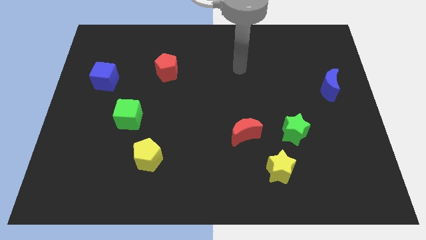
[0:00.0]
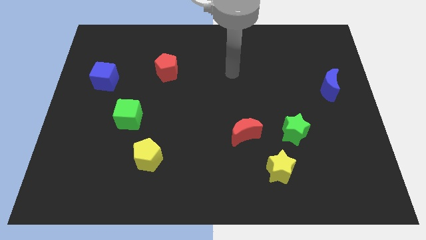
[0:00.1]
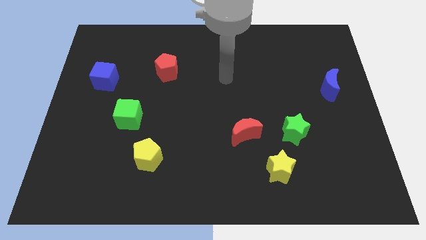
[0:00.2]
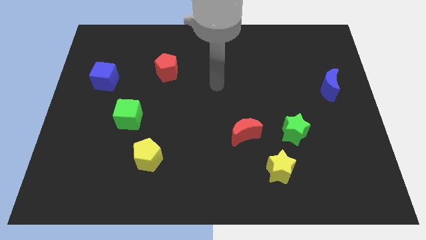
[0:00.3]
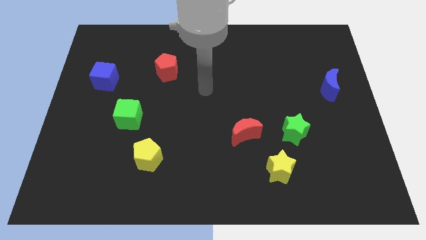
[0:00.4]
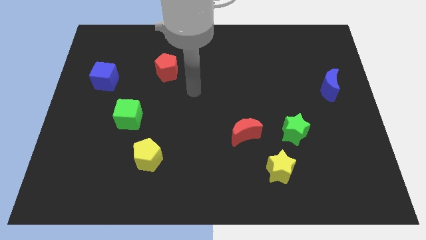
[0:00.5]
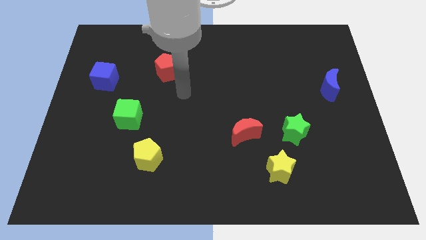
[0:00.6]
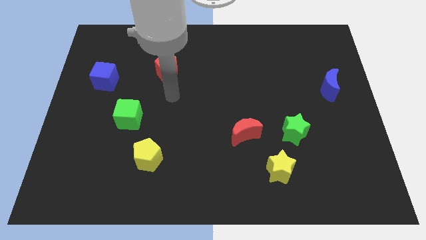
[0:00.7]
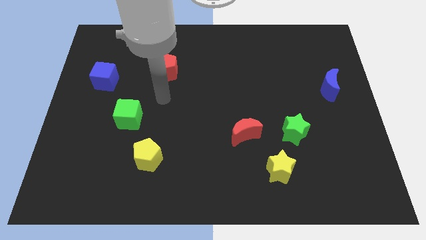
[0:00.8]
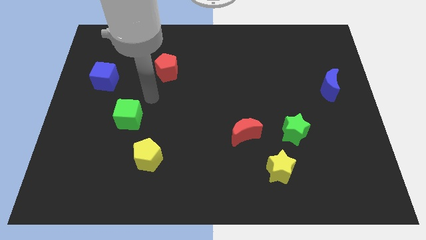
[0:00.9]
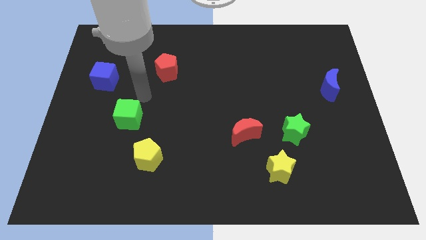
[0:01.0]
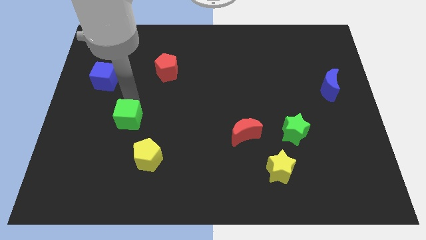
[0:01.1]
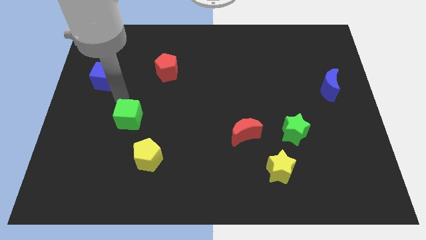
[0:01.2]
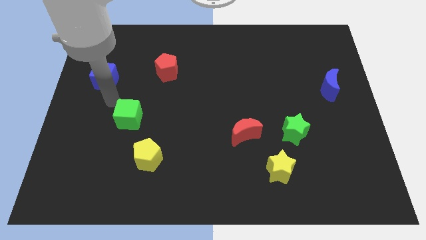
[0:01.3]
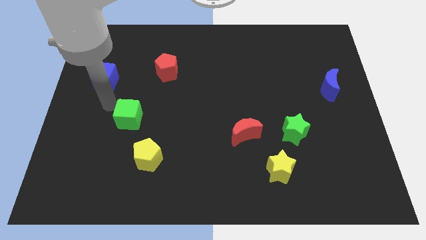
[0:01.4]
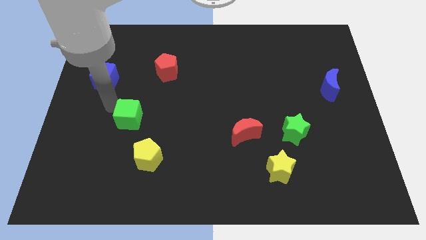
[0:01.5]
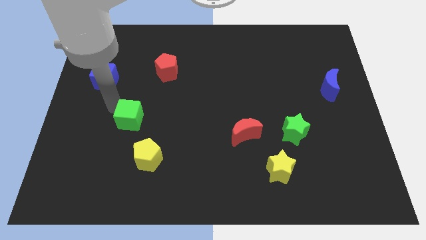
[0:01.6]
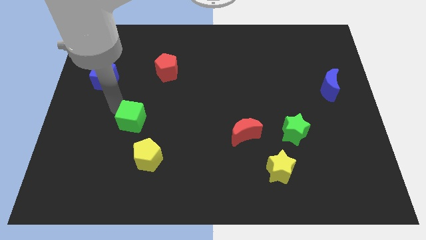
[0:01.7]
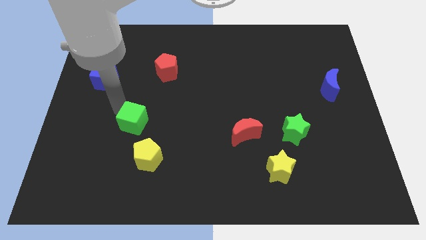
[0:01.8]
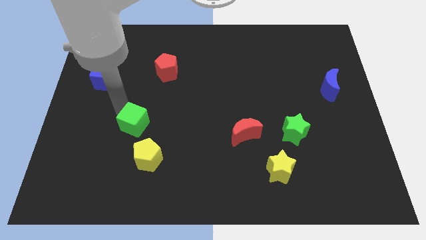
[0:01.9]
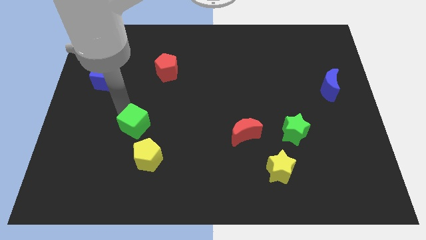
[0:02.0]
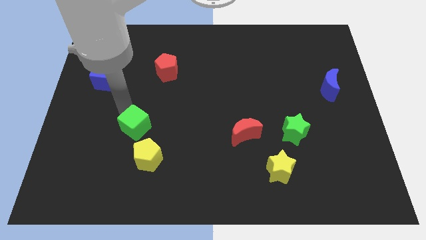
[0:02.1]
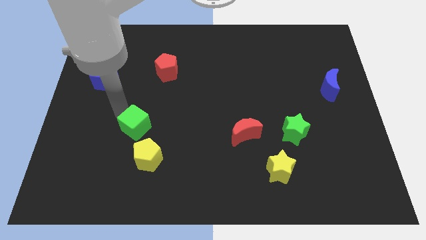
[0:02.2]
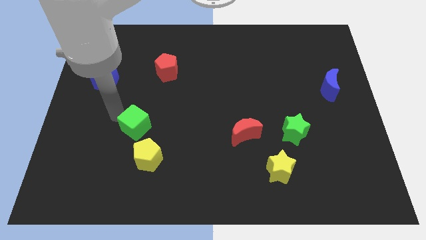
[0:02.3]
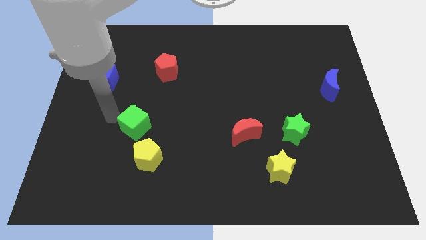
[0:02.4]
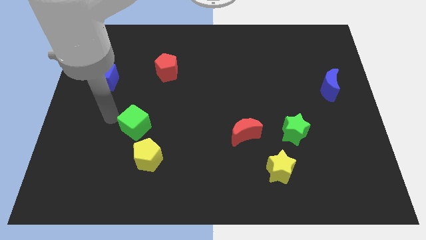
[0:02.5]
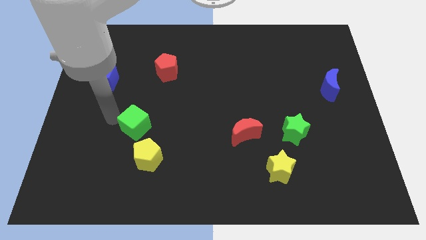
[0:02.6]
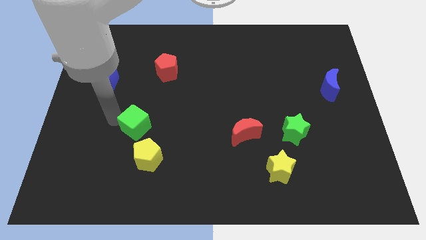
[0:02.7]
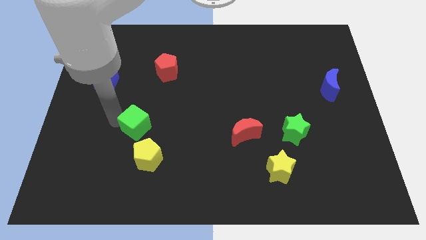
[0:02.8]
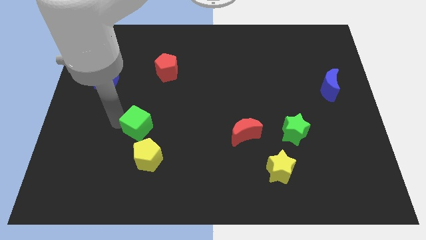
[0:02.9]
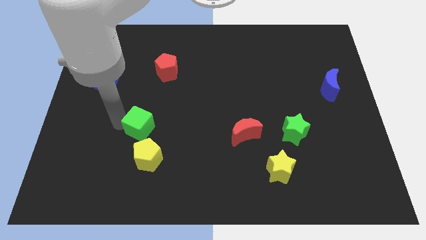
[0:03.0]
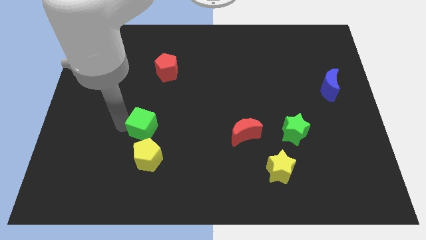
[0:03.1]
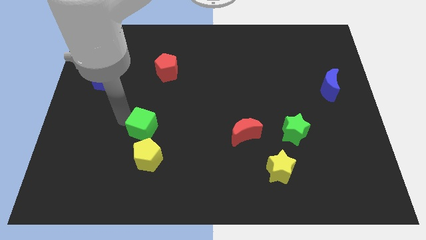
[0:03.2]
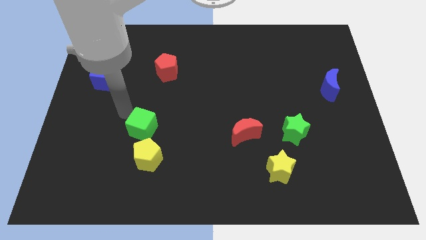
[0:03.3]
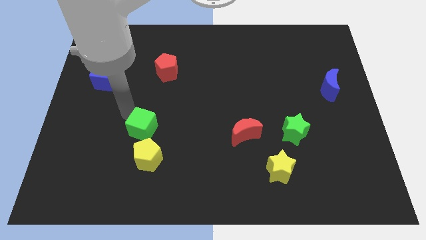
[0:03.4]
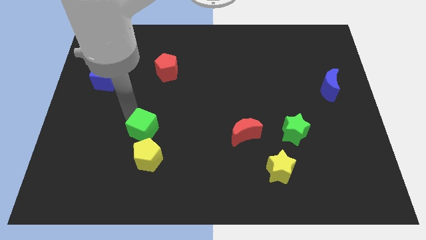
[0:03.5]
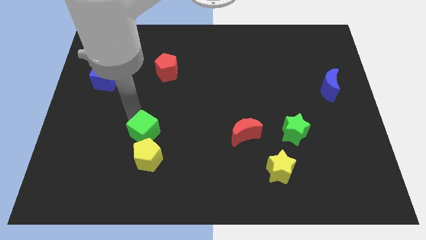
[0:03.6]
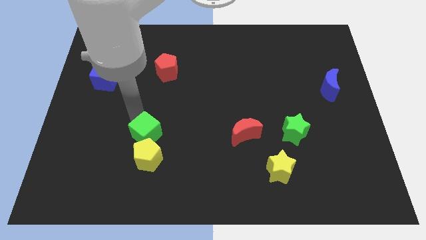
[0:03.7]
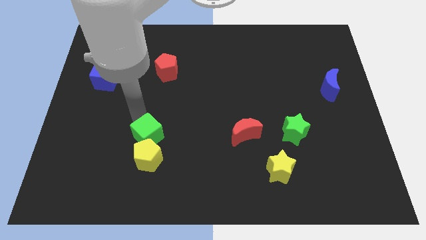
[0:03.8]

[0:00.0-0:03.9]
slightly slide the green cube downwards and then right

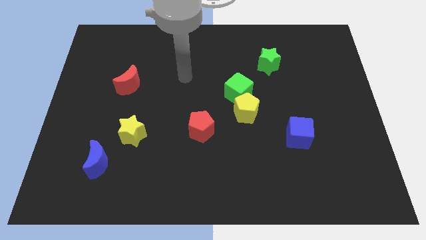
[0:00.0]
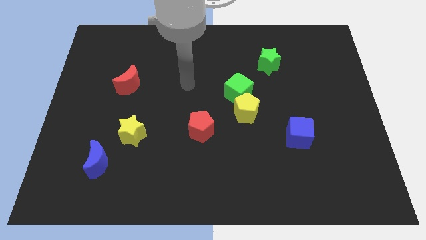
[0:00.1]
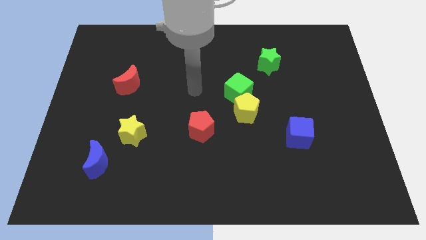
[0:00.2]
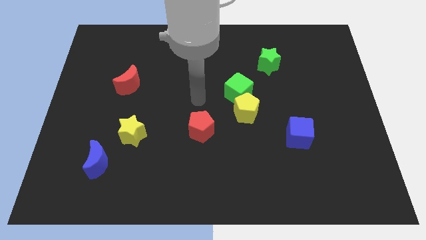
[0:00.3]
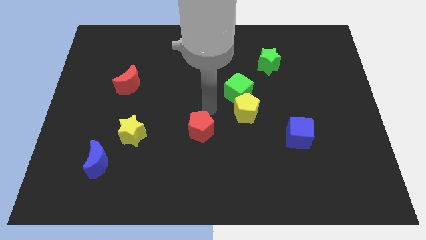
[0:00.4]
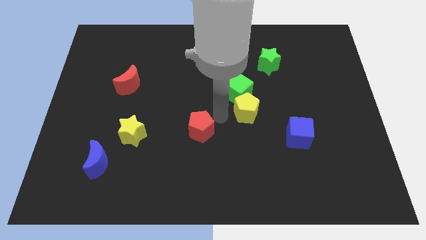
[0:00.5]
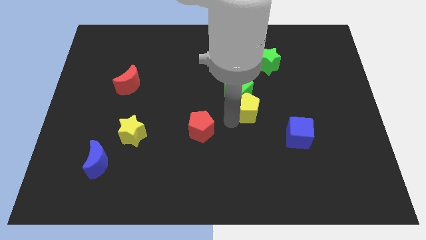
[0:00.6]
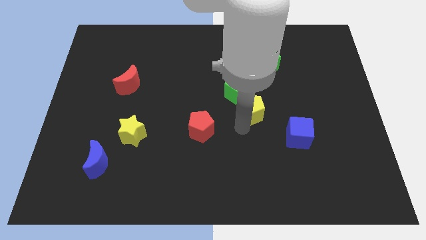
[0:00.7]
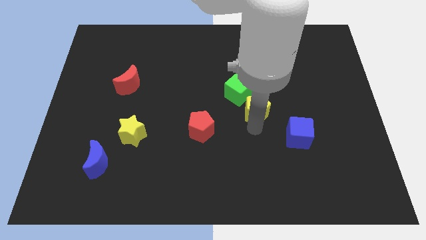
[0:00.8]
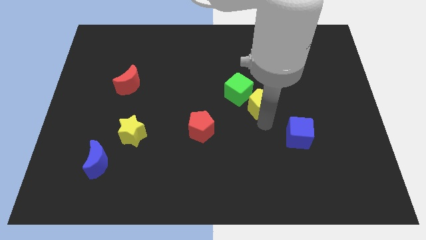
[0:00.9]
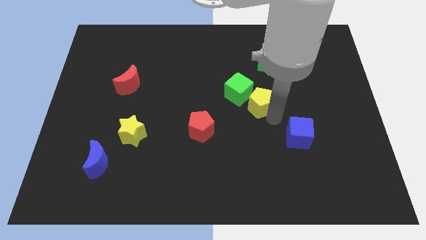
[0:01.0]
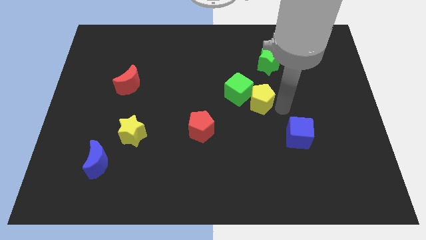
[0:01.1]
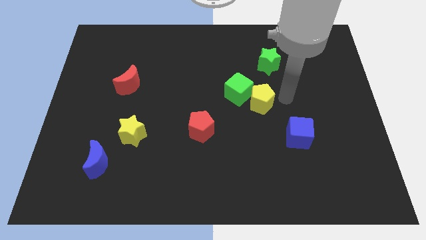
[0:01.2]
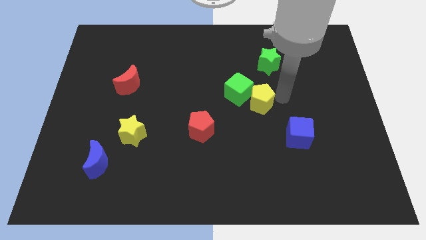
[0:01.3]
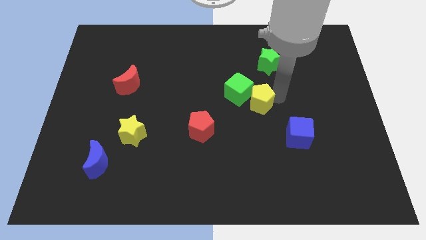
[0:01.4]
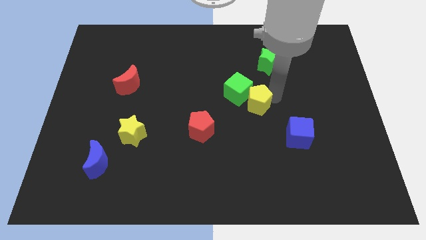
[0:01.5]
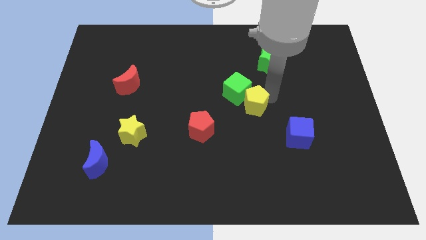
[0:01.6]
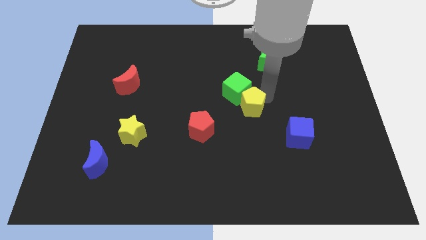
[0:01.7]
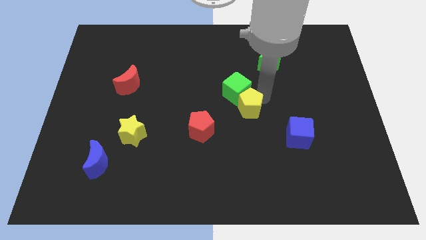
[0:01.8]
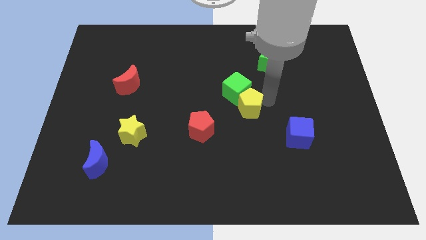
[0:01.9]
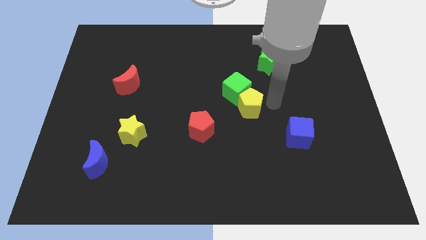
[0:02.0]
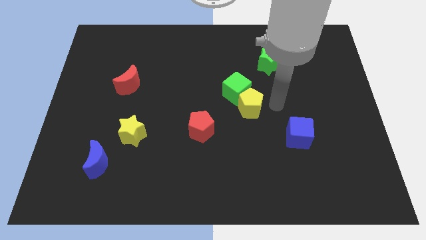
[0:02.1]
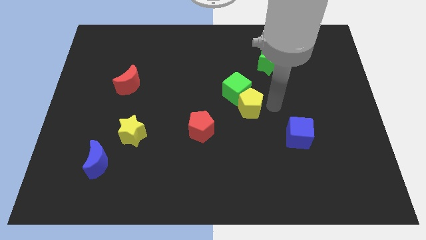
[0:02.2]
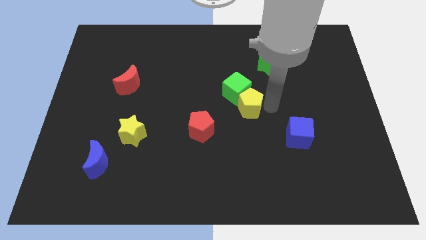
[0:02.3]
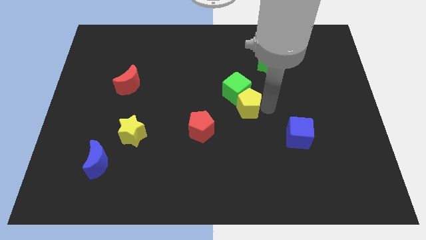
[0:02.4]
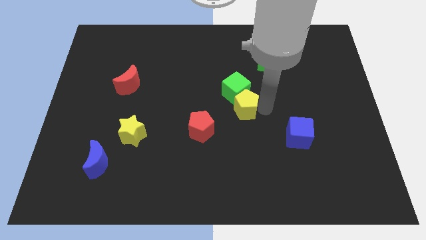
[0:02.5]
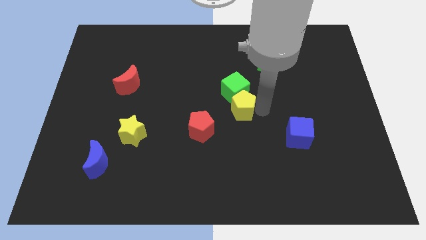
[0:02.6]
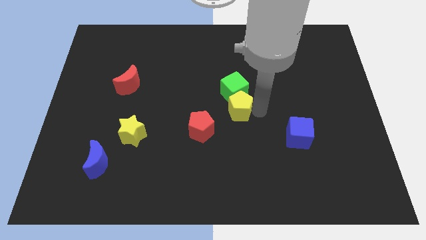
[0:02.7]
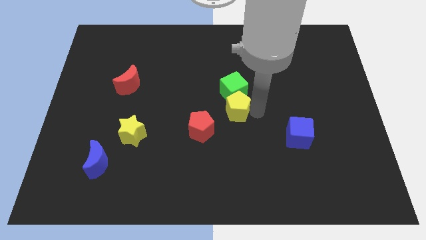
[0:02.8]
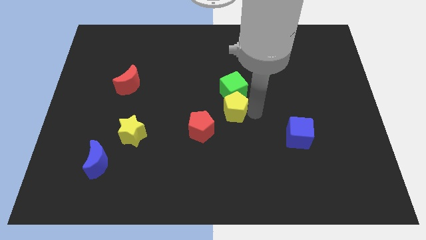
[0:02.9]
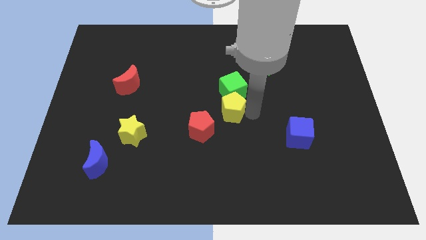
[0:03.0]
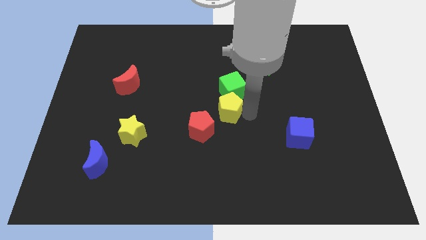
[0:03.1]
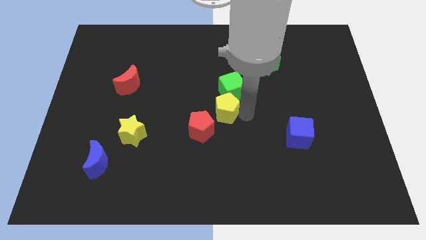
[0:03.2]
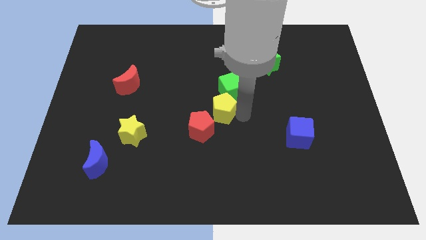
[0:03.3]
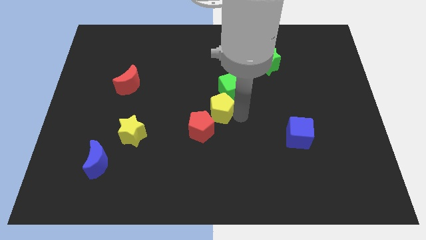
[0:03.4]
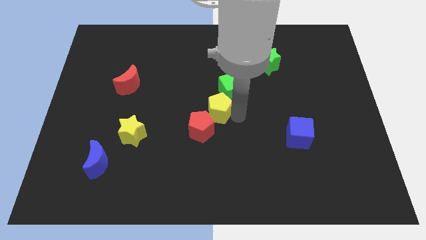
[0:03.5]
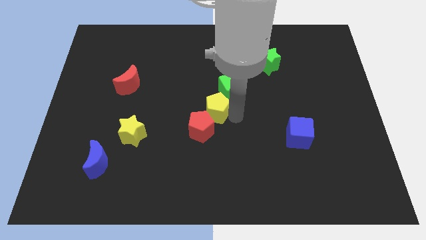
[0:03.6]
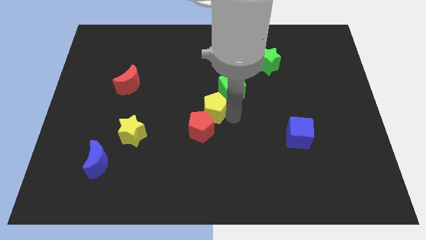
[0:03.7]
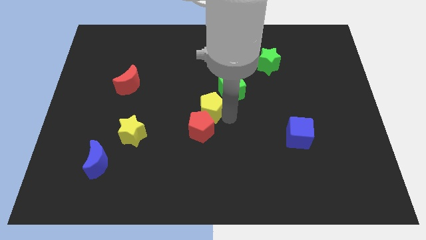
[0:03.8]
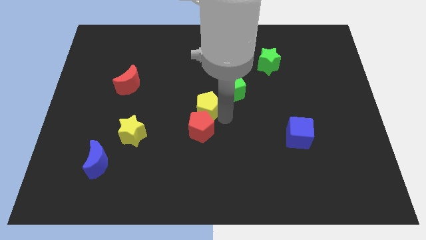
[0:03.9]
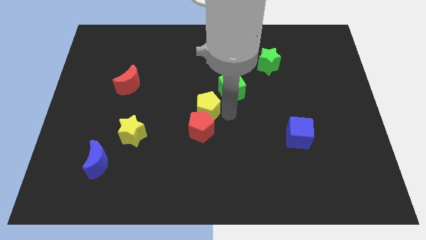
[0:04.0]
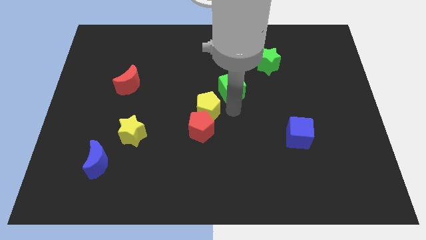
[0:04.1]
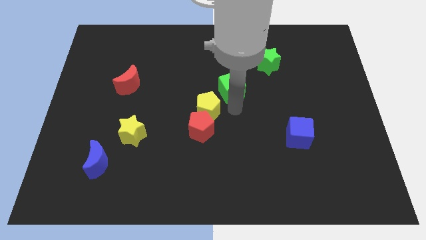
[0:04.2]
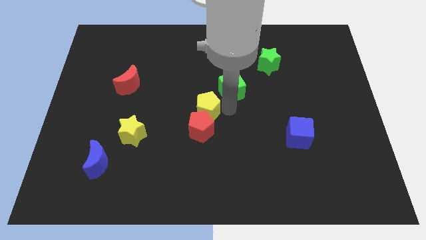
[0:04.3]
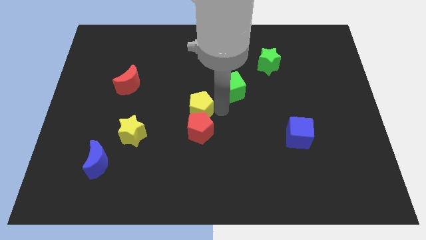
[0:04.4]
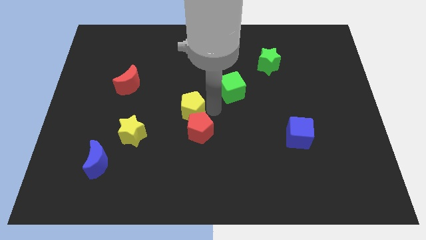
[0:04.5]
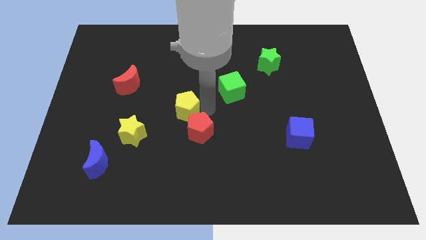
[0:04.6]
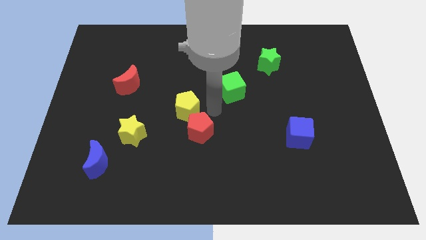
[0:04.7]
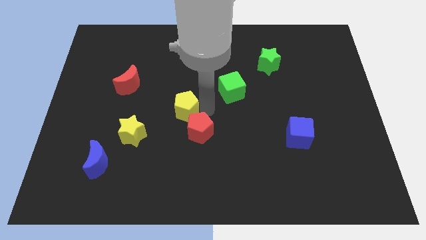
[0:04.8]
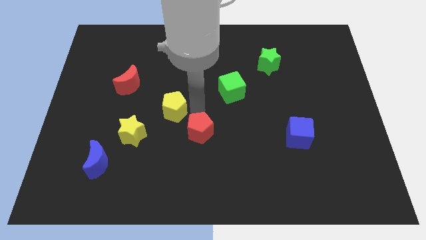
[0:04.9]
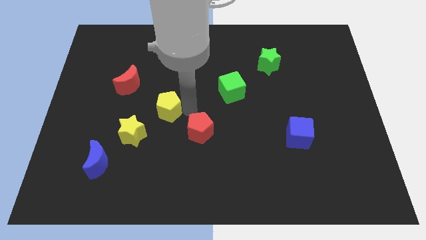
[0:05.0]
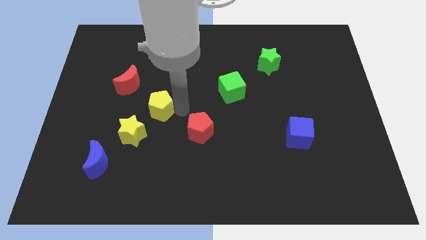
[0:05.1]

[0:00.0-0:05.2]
slide the yellow pentagon to the left
